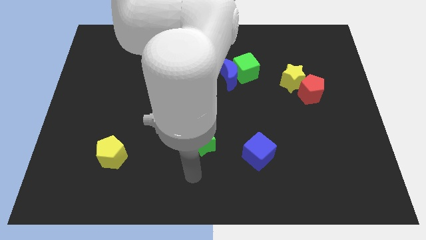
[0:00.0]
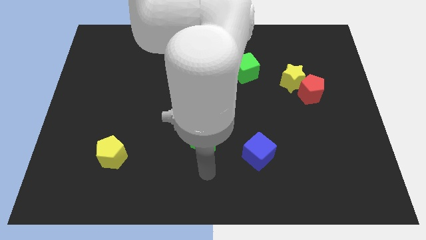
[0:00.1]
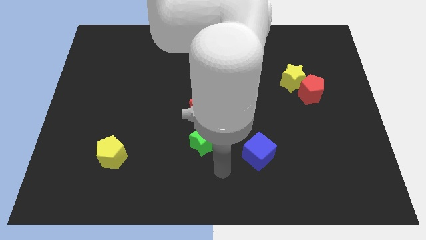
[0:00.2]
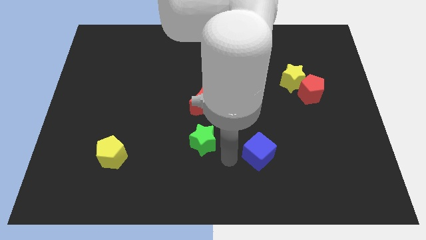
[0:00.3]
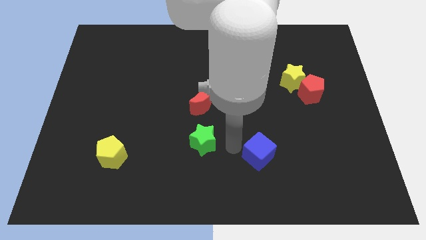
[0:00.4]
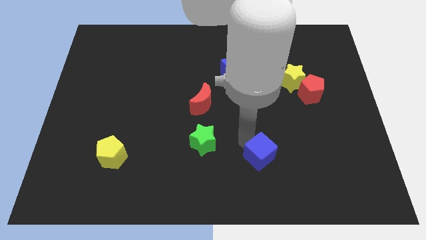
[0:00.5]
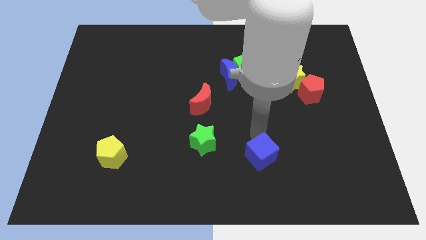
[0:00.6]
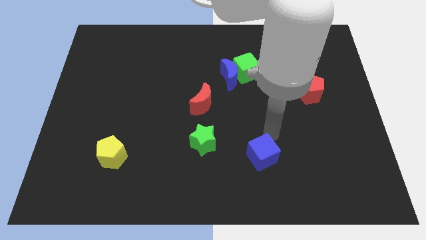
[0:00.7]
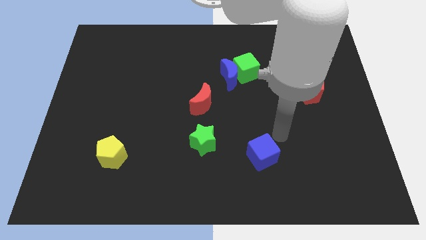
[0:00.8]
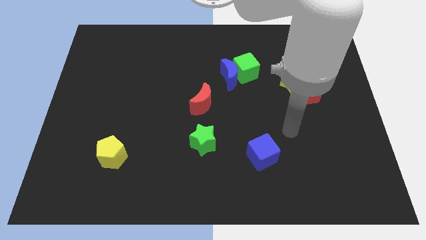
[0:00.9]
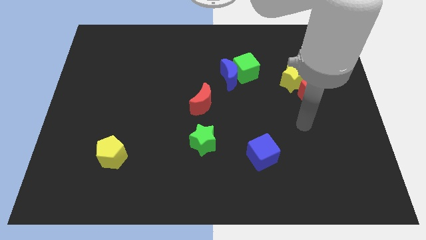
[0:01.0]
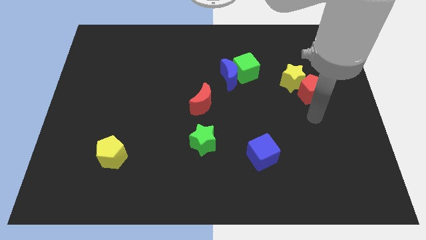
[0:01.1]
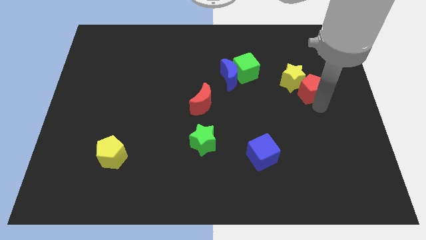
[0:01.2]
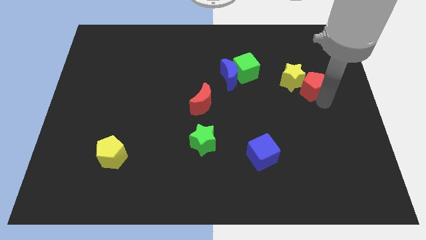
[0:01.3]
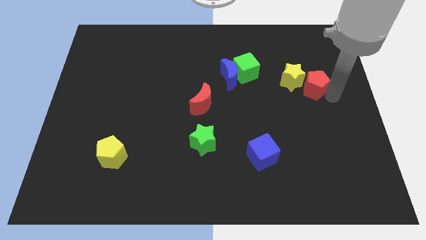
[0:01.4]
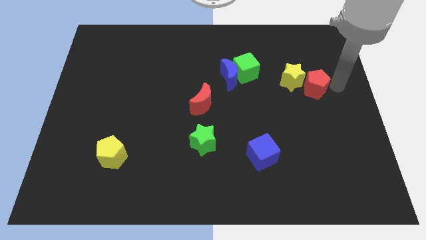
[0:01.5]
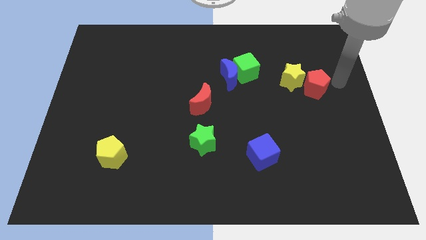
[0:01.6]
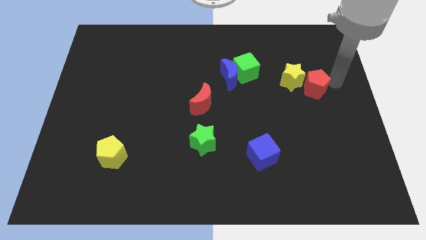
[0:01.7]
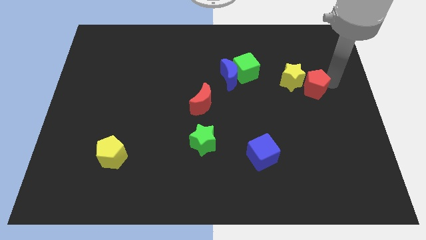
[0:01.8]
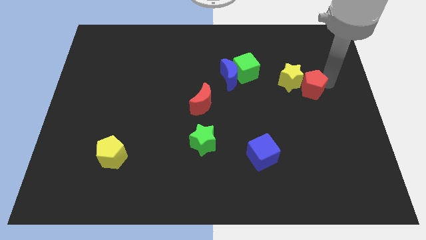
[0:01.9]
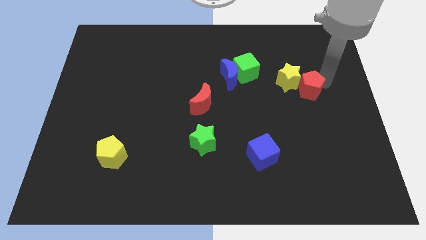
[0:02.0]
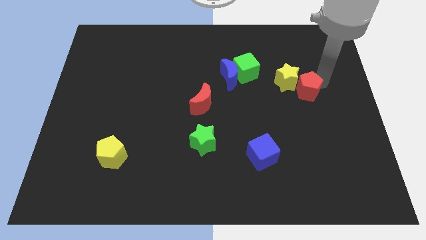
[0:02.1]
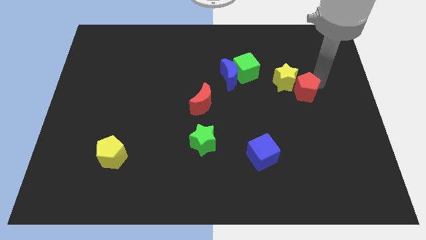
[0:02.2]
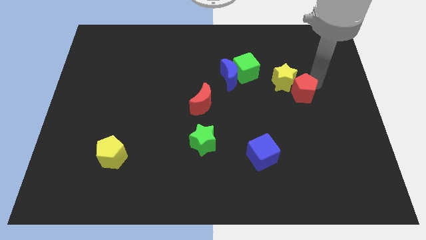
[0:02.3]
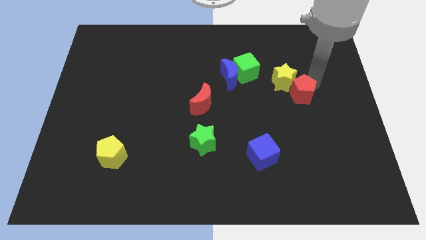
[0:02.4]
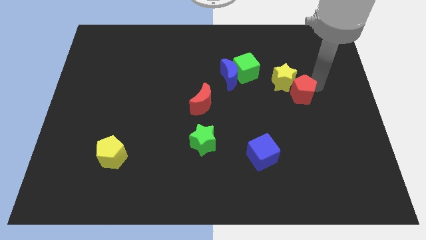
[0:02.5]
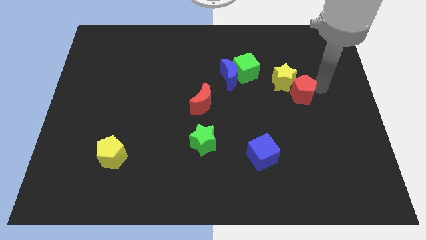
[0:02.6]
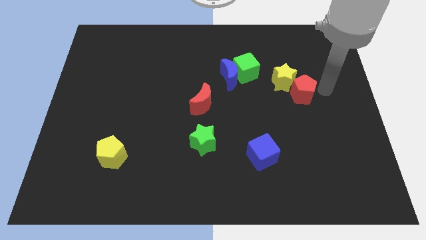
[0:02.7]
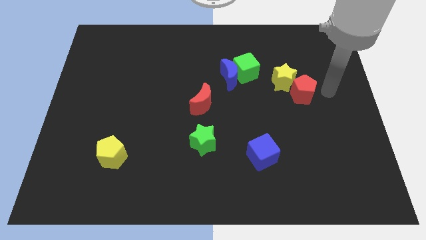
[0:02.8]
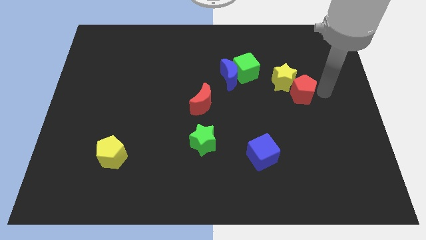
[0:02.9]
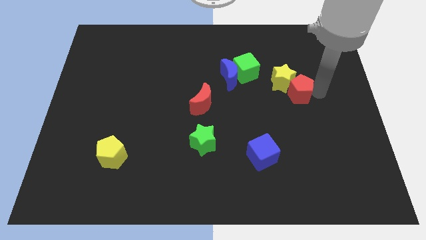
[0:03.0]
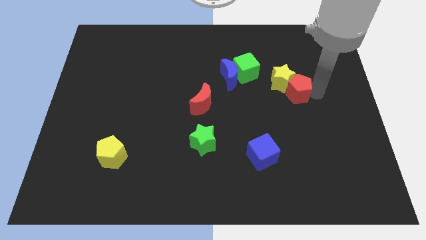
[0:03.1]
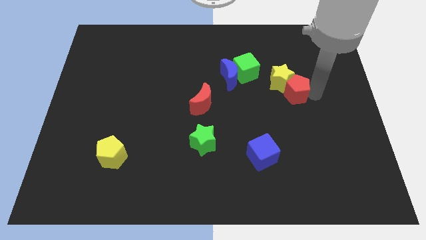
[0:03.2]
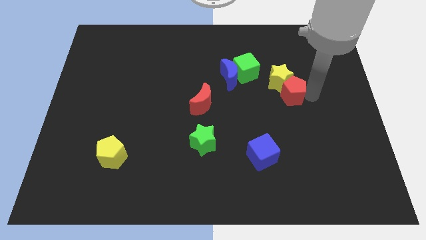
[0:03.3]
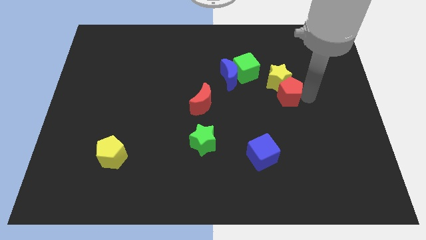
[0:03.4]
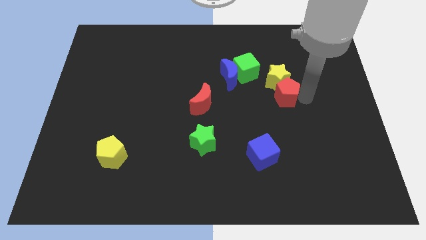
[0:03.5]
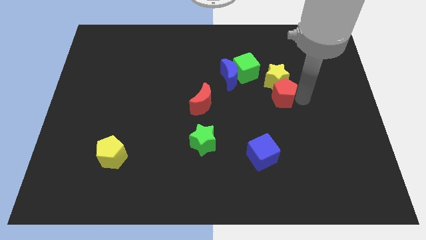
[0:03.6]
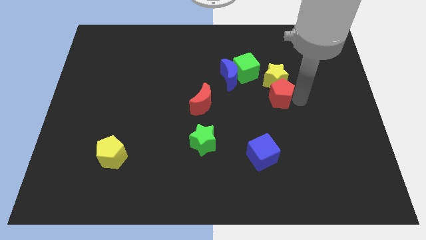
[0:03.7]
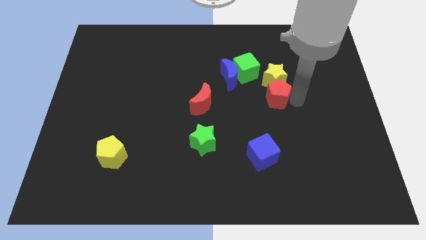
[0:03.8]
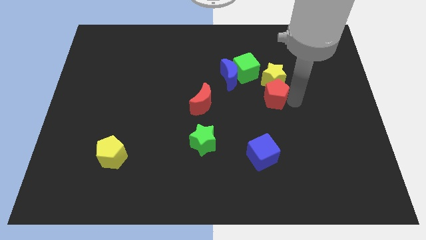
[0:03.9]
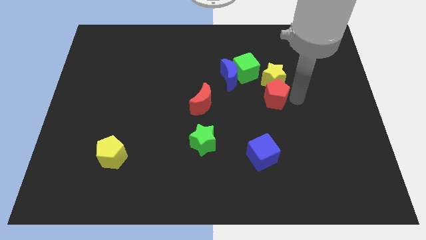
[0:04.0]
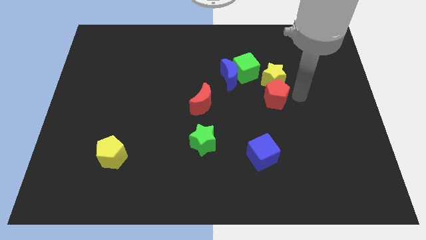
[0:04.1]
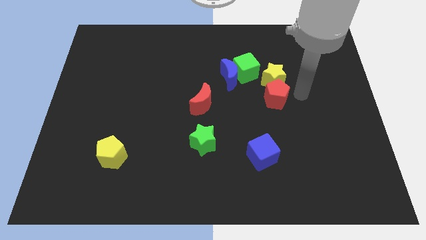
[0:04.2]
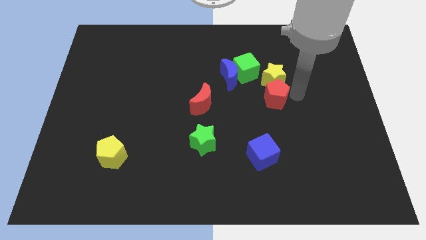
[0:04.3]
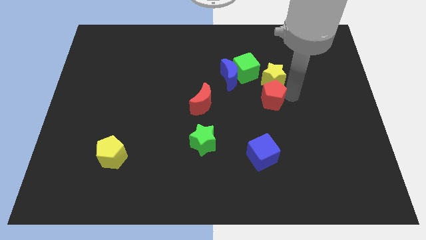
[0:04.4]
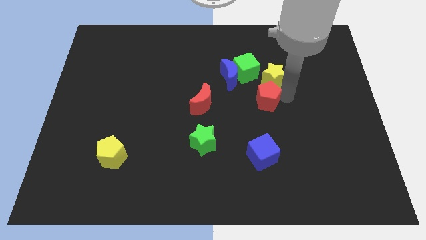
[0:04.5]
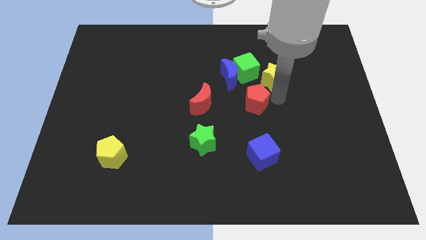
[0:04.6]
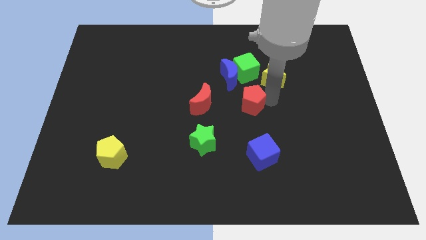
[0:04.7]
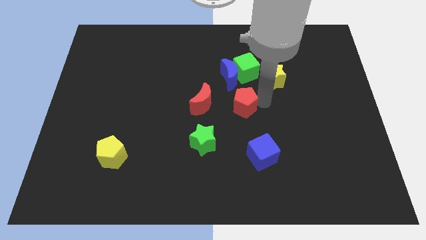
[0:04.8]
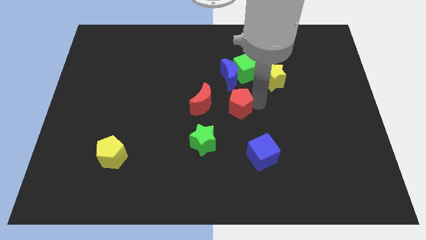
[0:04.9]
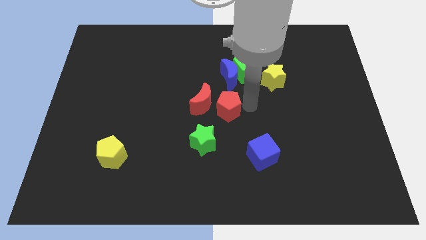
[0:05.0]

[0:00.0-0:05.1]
push the red pentagon close to the red moon
